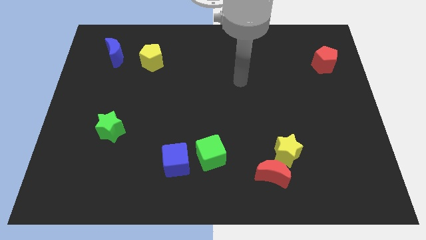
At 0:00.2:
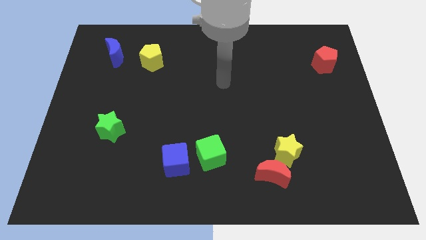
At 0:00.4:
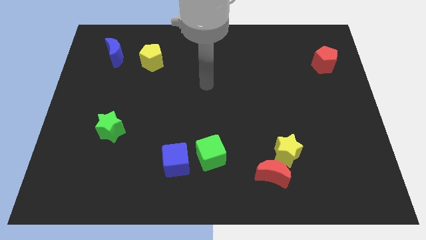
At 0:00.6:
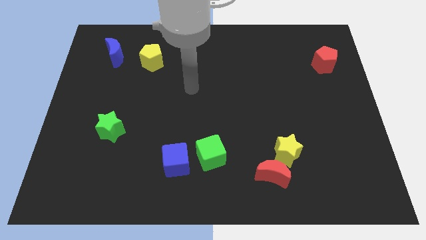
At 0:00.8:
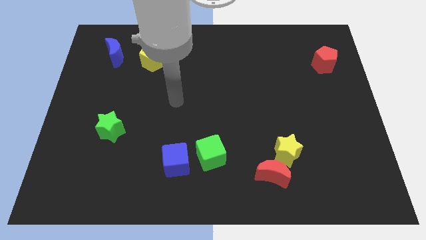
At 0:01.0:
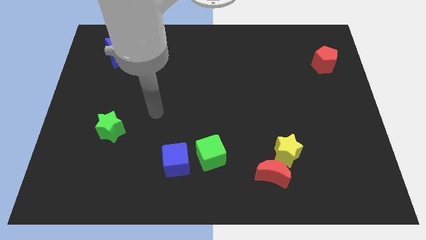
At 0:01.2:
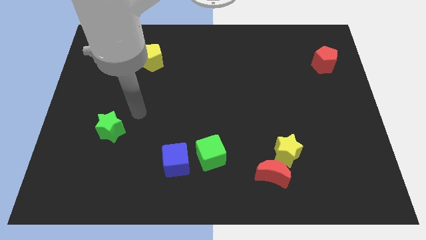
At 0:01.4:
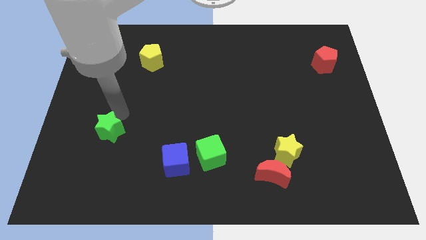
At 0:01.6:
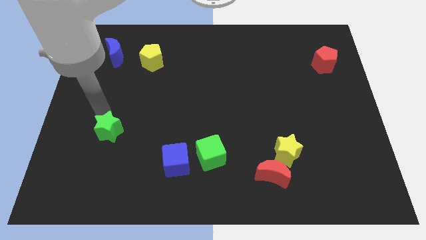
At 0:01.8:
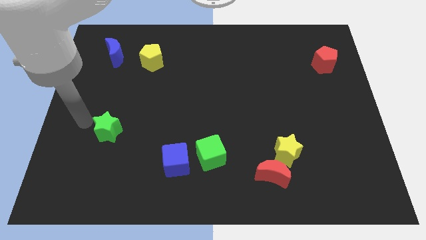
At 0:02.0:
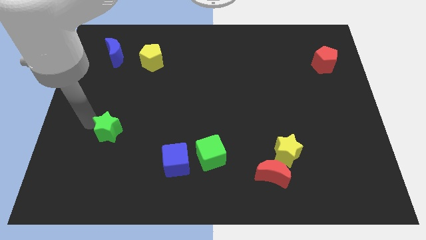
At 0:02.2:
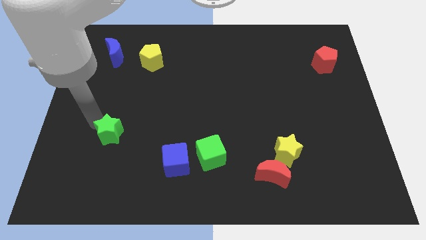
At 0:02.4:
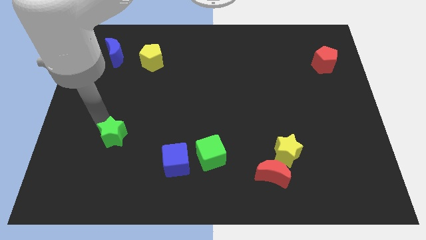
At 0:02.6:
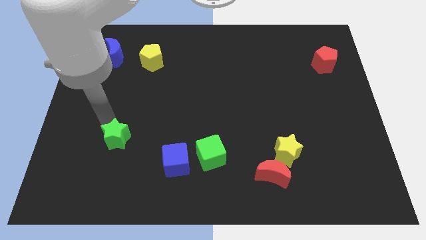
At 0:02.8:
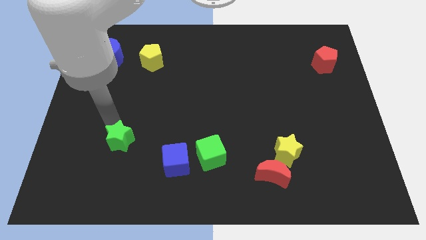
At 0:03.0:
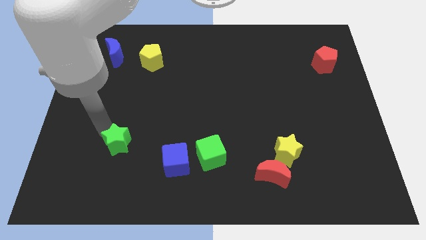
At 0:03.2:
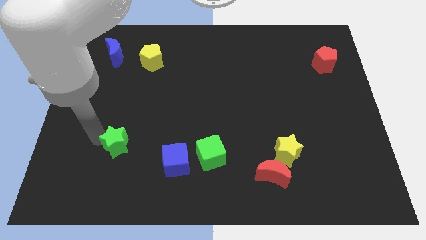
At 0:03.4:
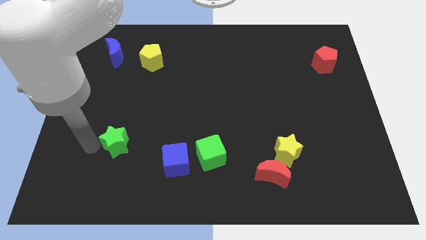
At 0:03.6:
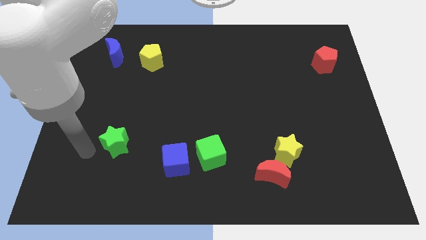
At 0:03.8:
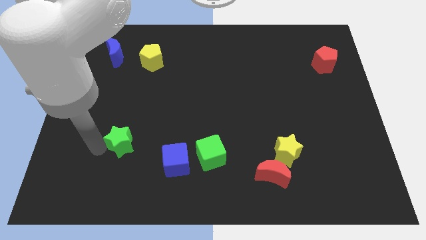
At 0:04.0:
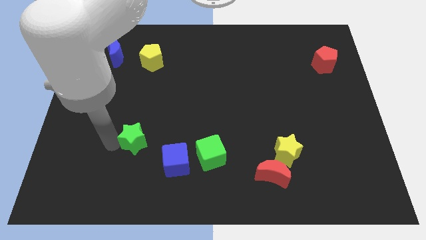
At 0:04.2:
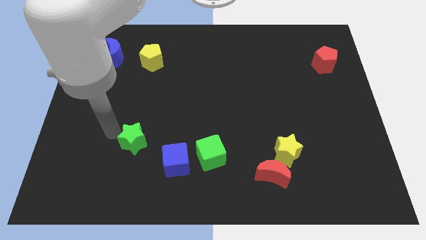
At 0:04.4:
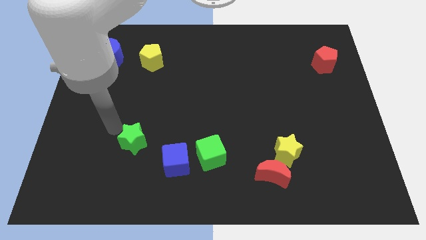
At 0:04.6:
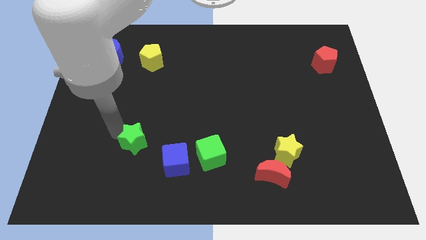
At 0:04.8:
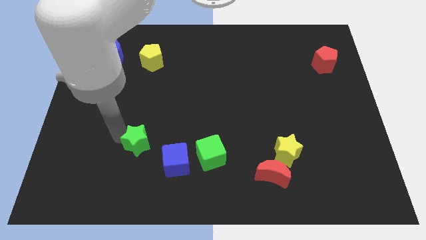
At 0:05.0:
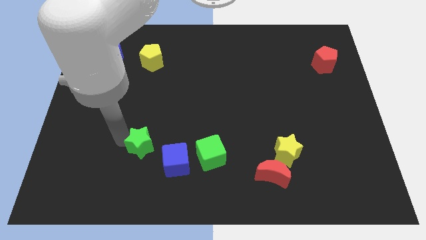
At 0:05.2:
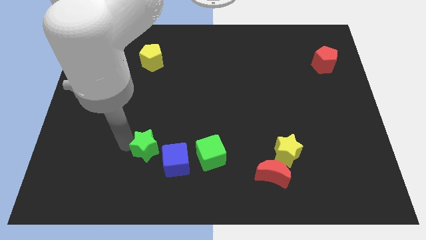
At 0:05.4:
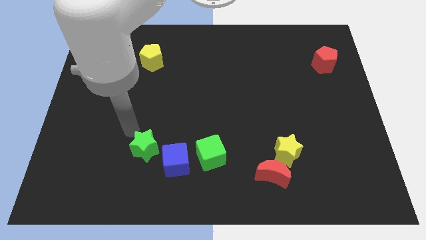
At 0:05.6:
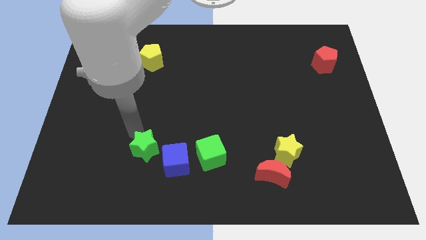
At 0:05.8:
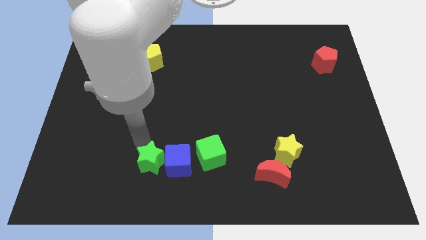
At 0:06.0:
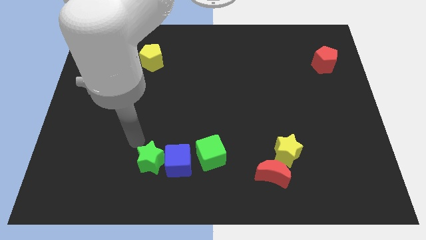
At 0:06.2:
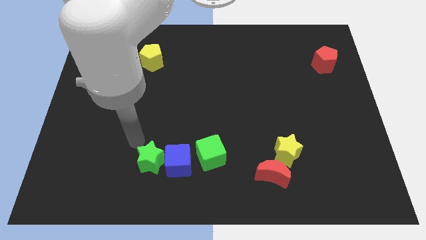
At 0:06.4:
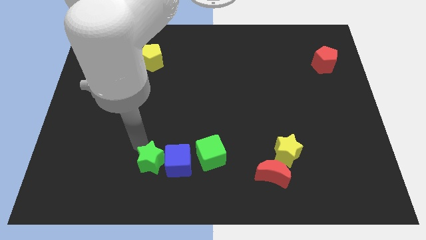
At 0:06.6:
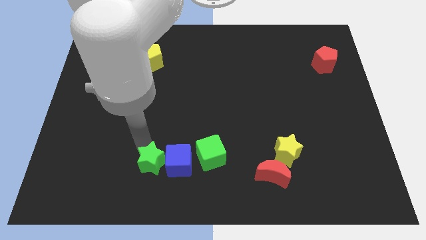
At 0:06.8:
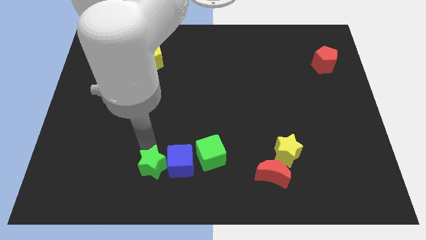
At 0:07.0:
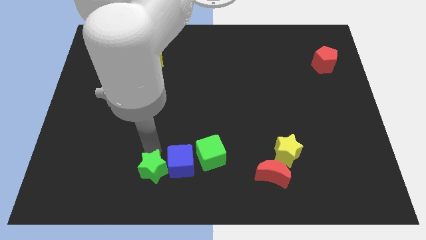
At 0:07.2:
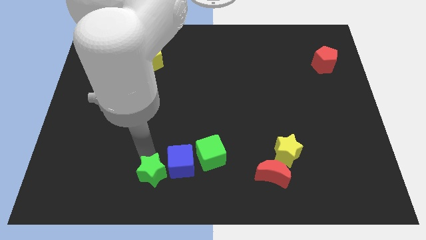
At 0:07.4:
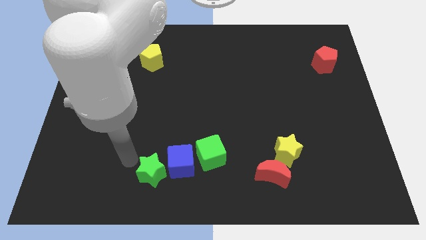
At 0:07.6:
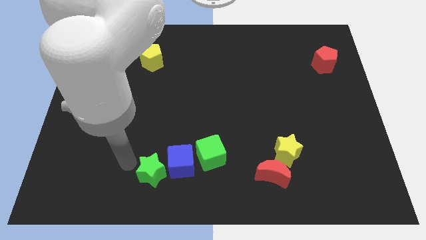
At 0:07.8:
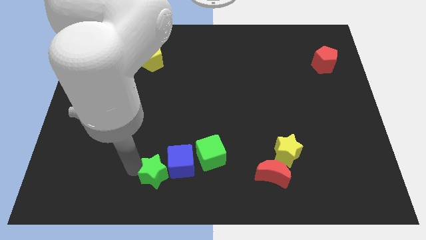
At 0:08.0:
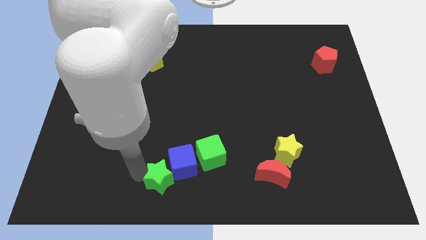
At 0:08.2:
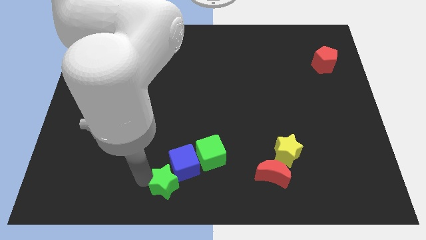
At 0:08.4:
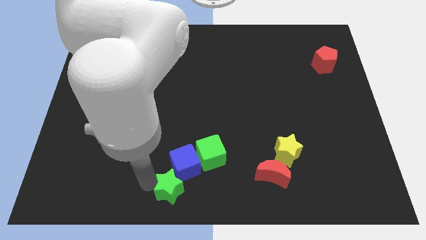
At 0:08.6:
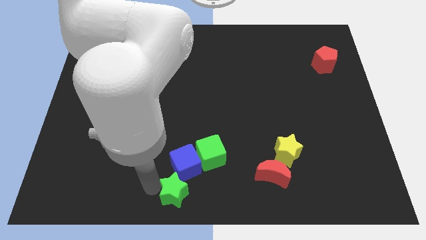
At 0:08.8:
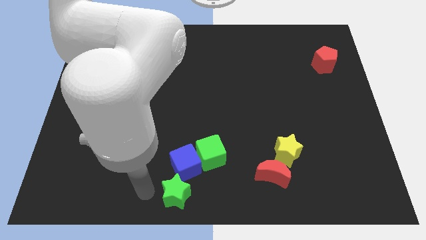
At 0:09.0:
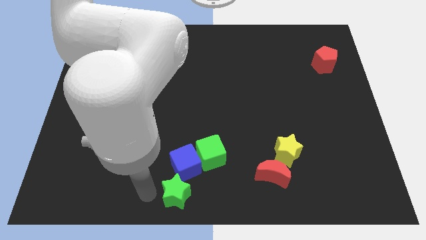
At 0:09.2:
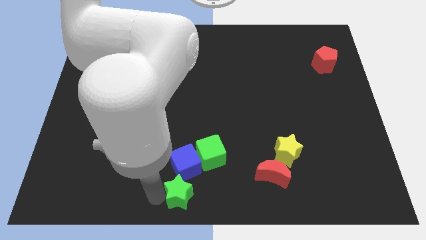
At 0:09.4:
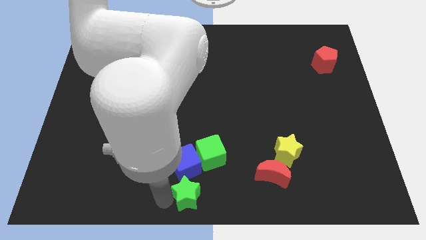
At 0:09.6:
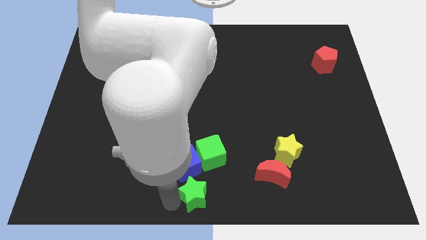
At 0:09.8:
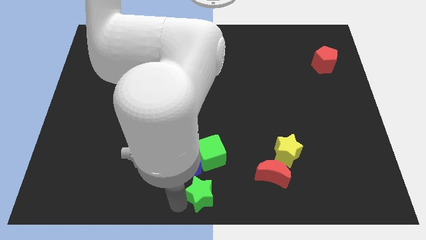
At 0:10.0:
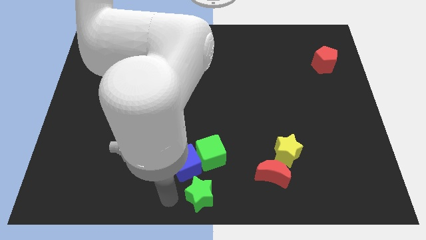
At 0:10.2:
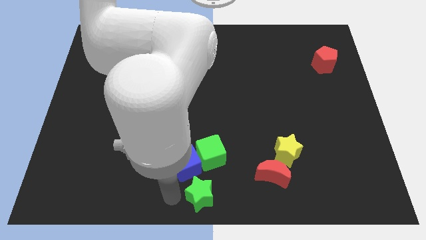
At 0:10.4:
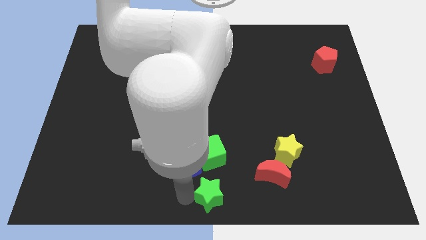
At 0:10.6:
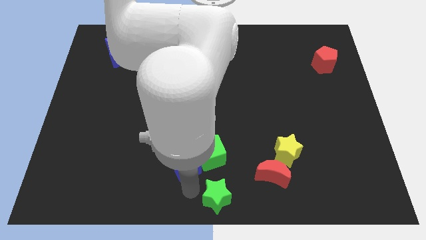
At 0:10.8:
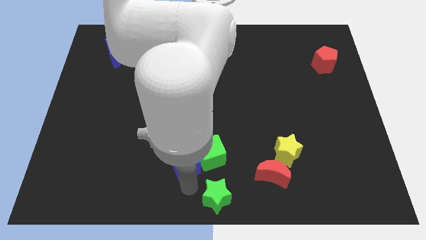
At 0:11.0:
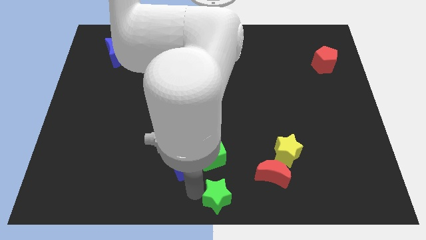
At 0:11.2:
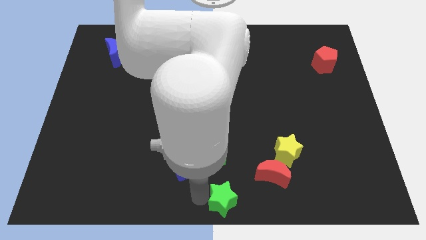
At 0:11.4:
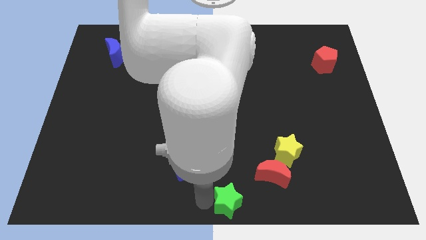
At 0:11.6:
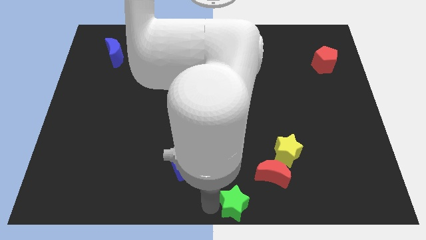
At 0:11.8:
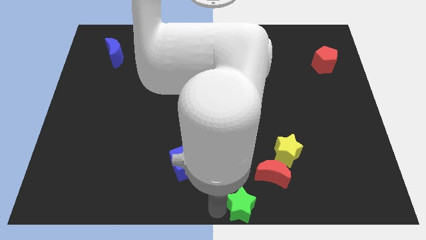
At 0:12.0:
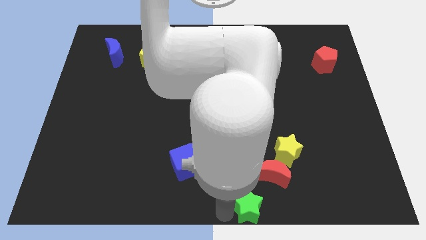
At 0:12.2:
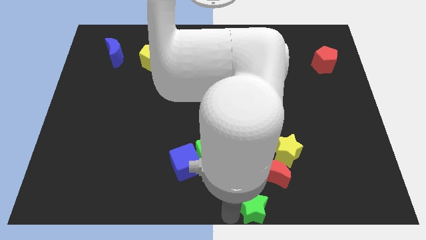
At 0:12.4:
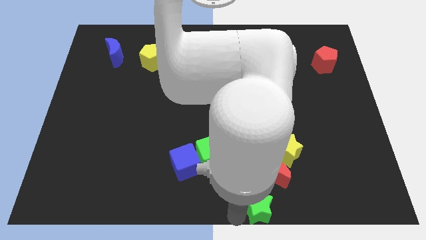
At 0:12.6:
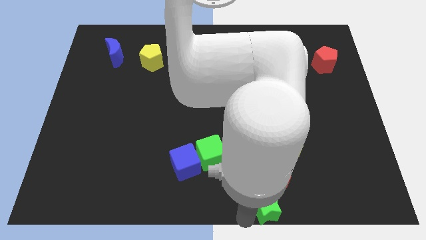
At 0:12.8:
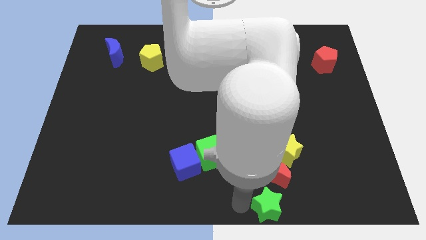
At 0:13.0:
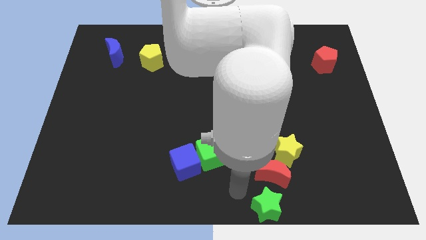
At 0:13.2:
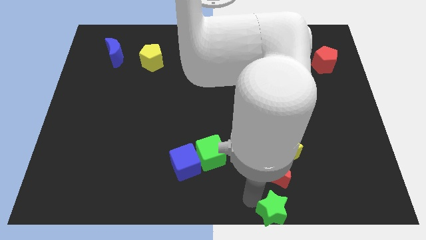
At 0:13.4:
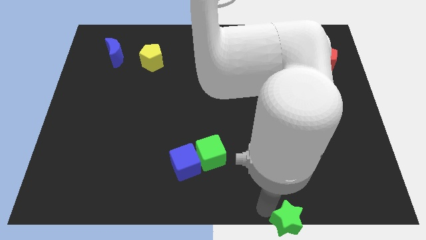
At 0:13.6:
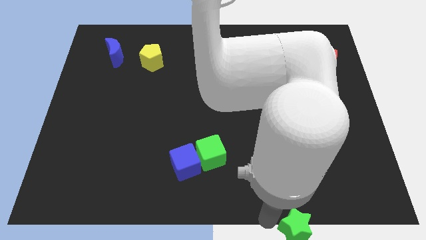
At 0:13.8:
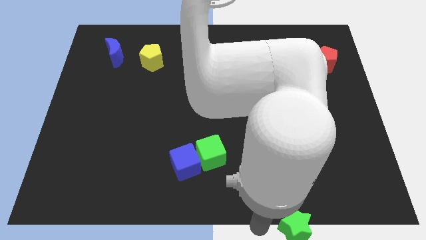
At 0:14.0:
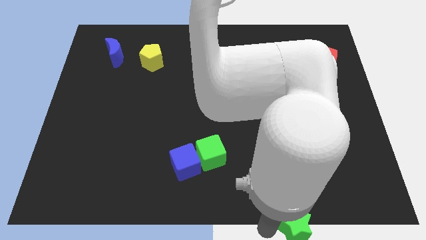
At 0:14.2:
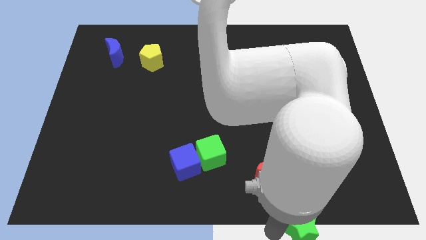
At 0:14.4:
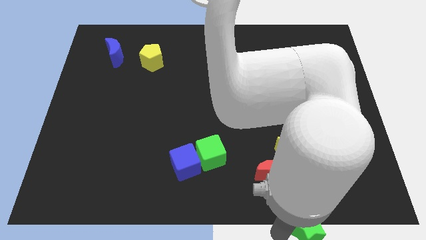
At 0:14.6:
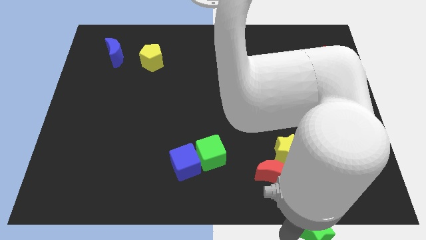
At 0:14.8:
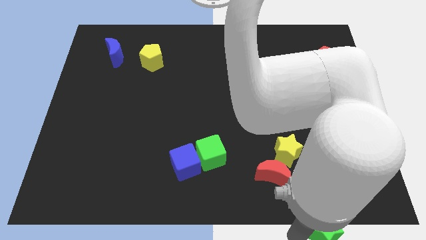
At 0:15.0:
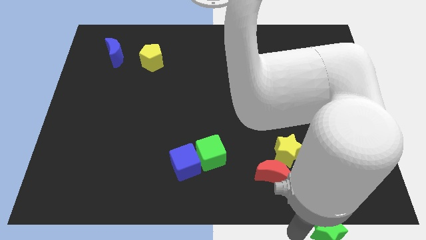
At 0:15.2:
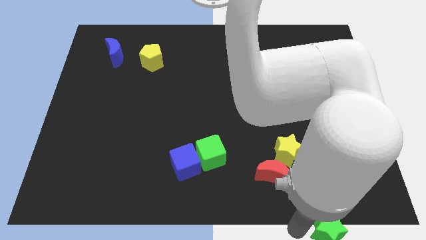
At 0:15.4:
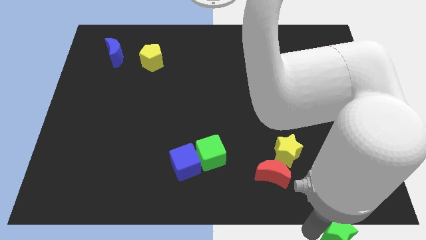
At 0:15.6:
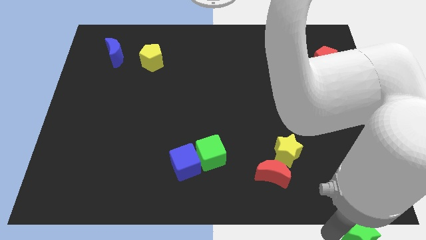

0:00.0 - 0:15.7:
push the green star to the bottom right of the board

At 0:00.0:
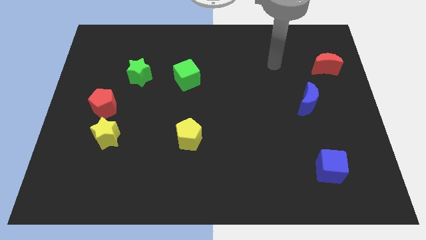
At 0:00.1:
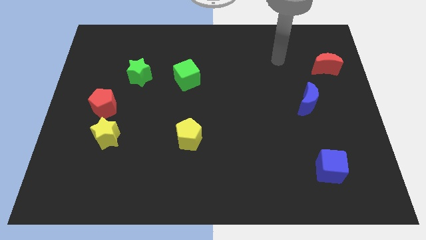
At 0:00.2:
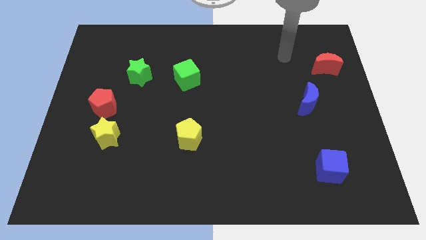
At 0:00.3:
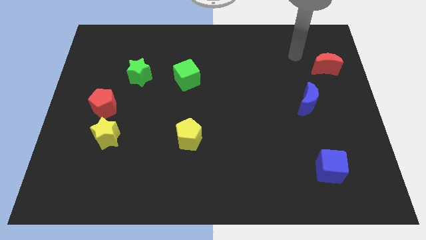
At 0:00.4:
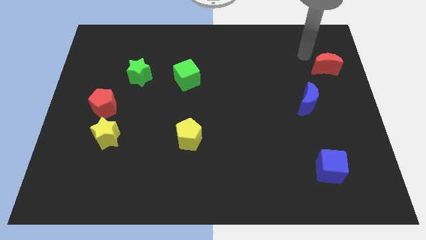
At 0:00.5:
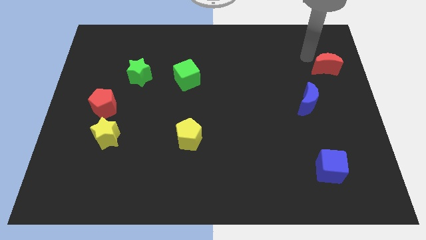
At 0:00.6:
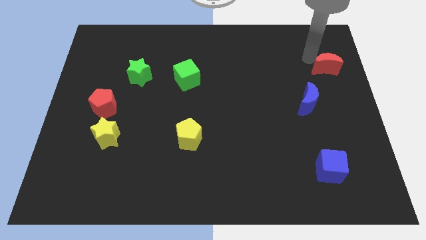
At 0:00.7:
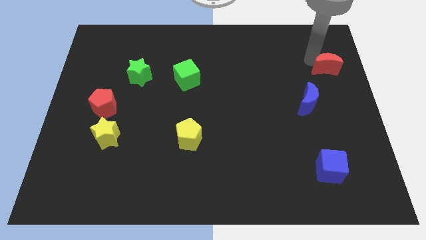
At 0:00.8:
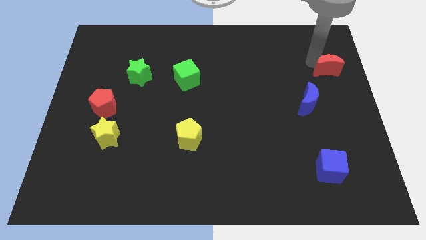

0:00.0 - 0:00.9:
push the red moon to the right side of the board
